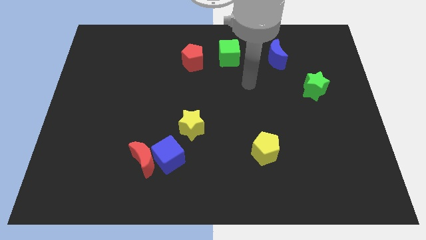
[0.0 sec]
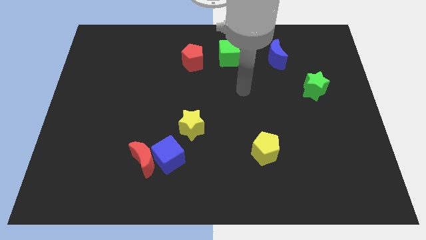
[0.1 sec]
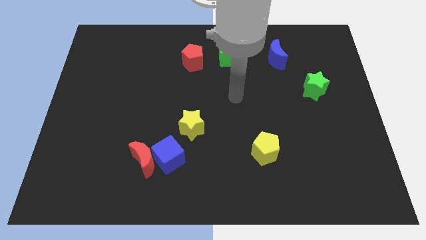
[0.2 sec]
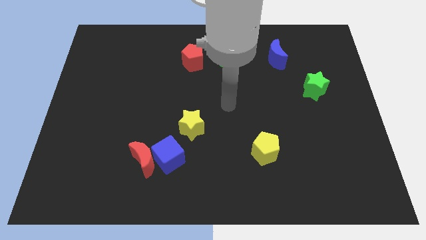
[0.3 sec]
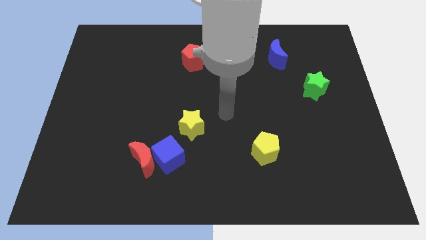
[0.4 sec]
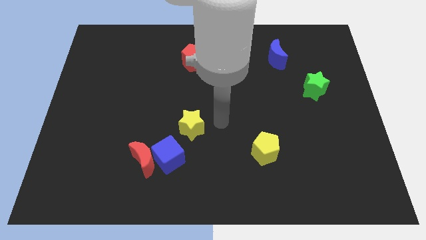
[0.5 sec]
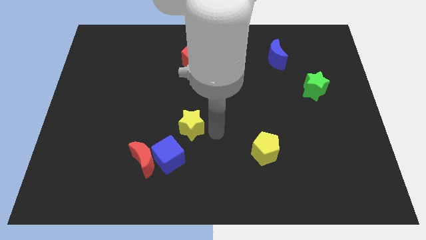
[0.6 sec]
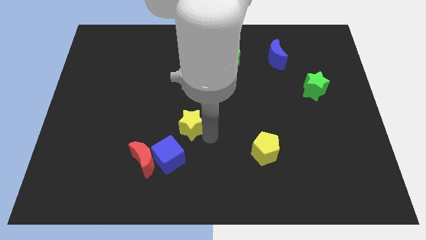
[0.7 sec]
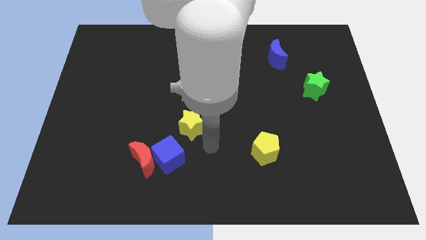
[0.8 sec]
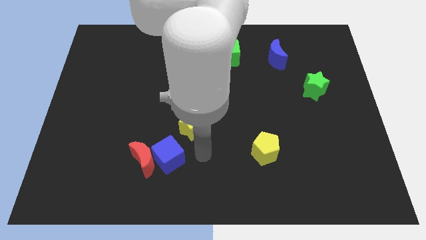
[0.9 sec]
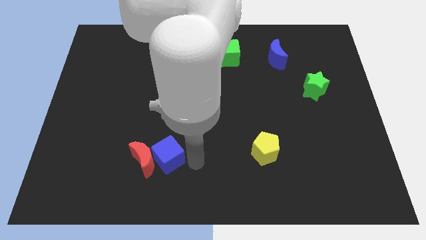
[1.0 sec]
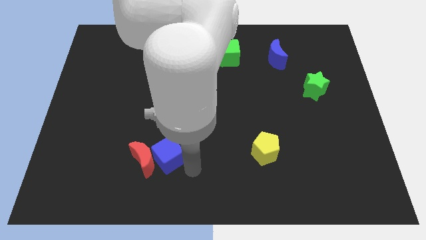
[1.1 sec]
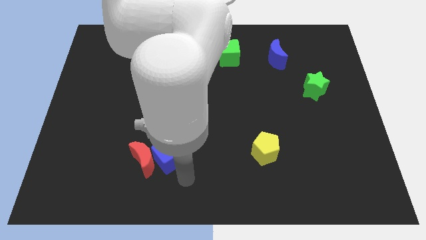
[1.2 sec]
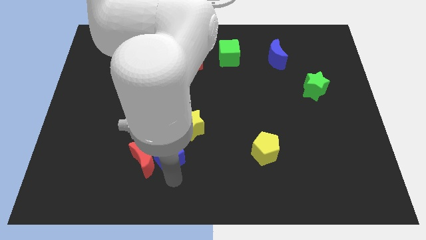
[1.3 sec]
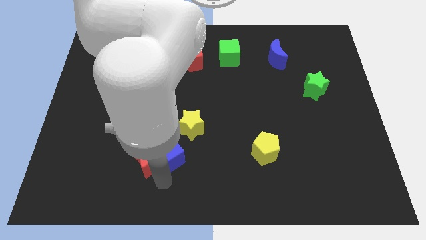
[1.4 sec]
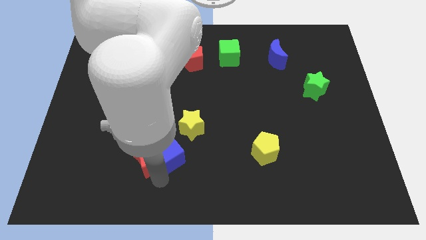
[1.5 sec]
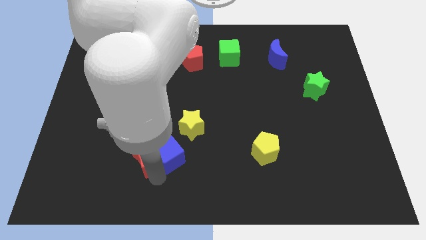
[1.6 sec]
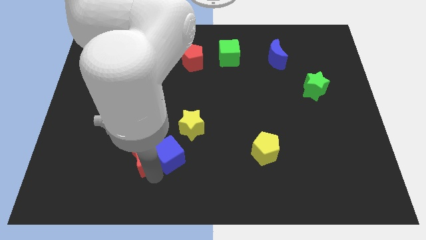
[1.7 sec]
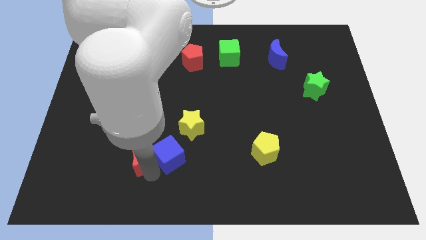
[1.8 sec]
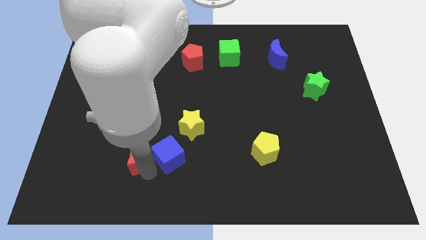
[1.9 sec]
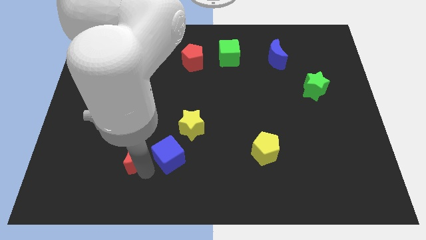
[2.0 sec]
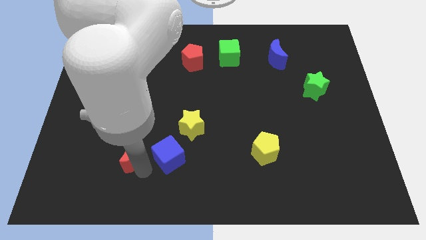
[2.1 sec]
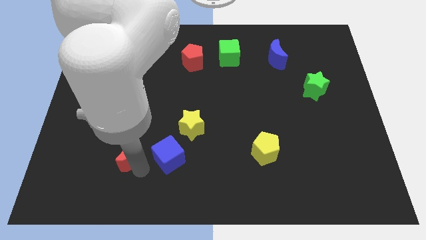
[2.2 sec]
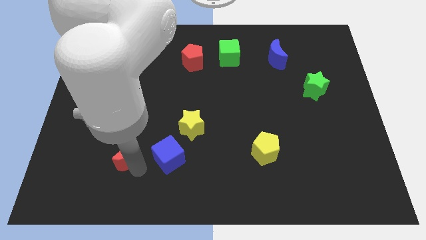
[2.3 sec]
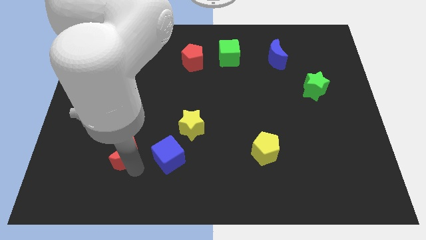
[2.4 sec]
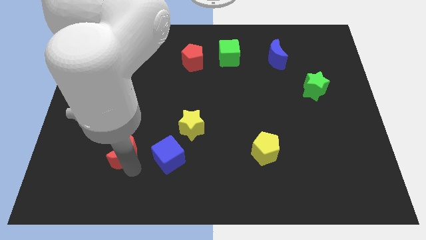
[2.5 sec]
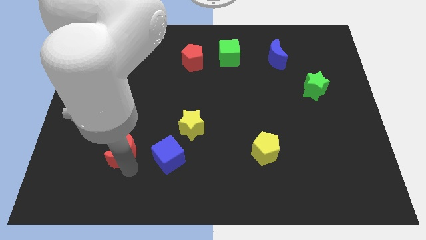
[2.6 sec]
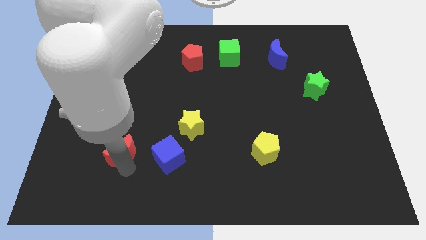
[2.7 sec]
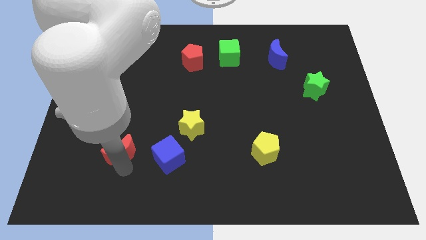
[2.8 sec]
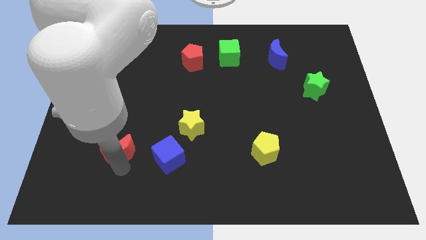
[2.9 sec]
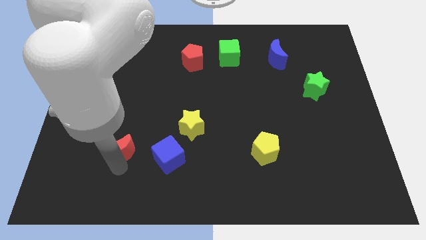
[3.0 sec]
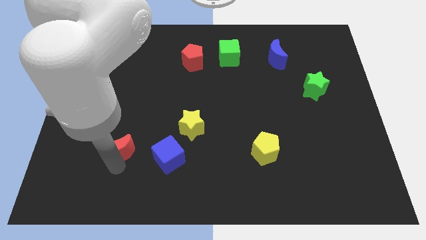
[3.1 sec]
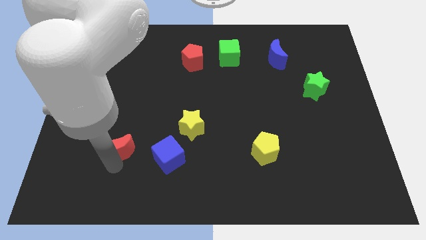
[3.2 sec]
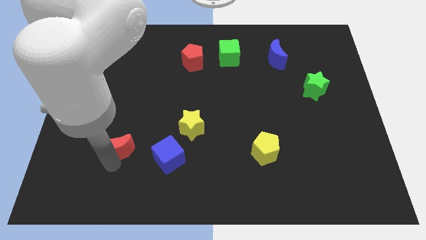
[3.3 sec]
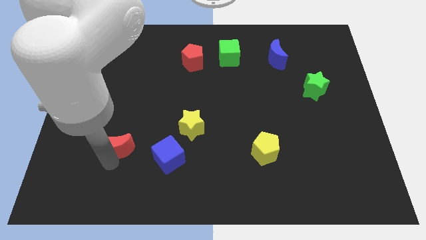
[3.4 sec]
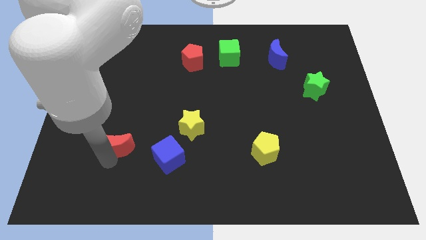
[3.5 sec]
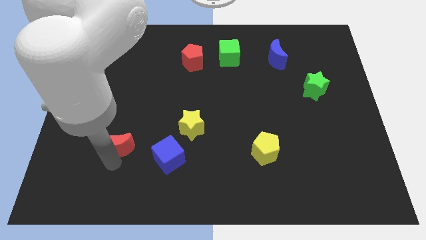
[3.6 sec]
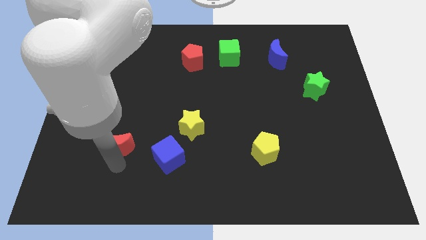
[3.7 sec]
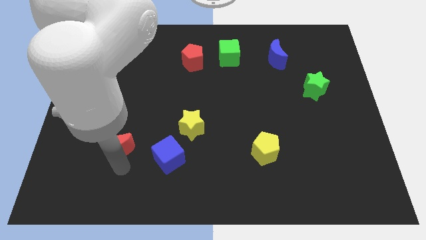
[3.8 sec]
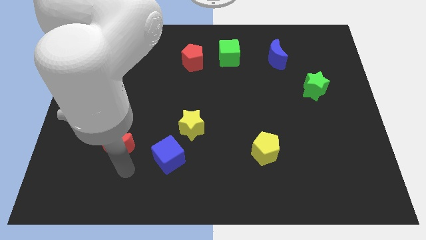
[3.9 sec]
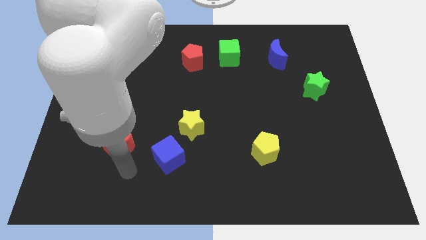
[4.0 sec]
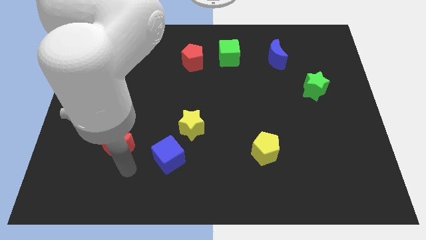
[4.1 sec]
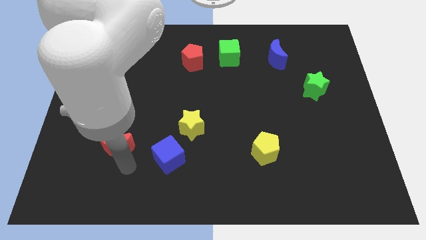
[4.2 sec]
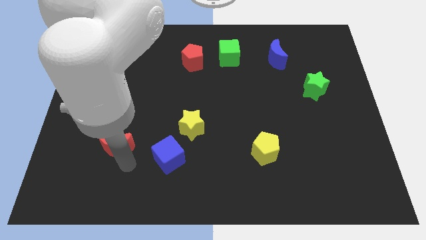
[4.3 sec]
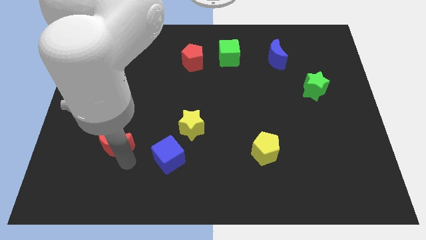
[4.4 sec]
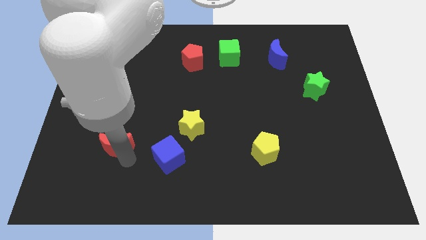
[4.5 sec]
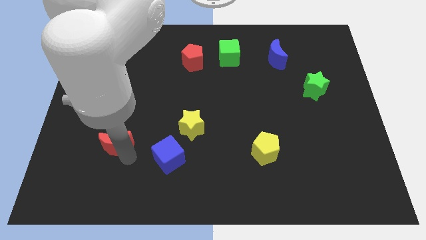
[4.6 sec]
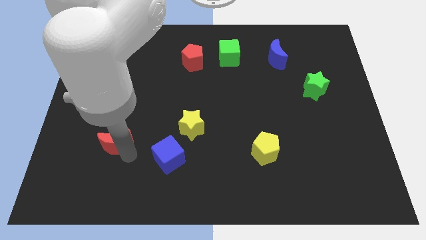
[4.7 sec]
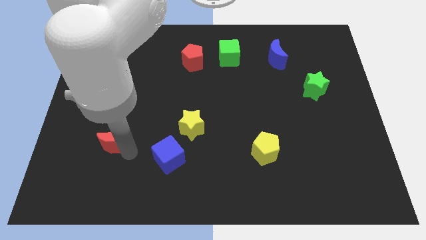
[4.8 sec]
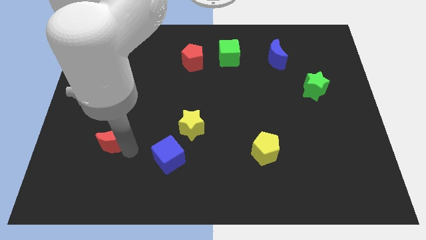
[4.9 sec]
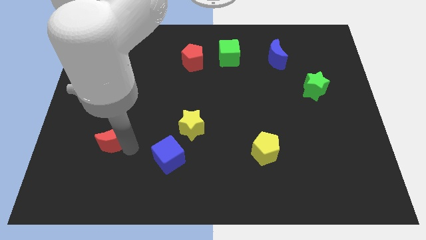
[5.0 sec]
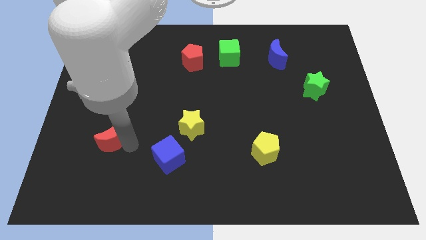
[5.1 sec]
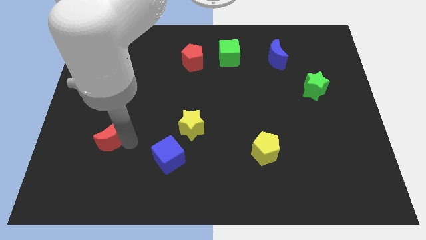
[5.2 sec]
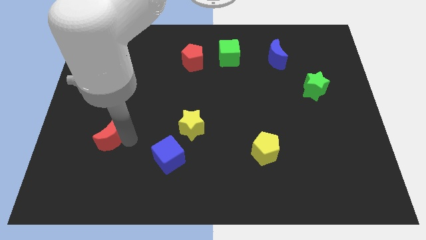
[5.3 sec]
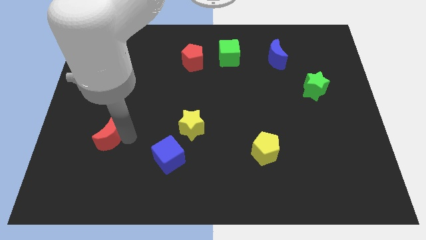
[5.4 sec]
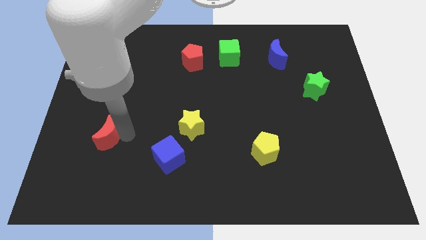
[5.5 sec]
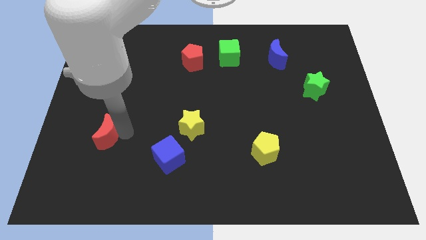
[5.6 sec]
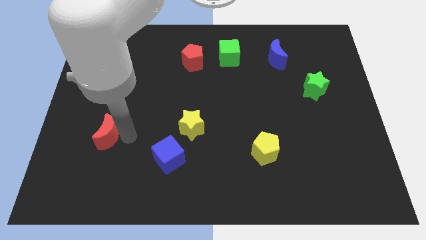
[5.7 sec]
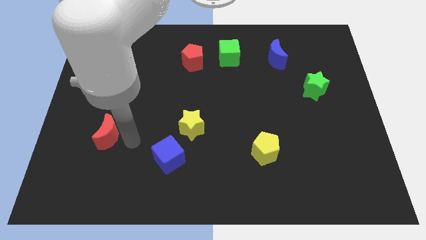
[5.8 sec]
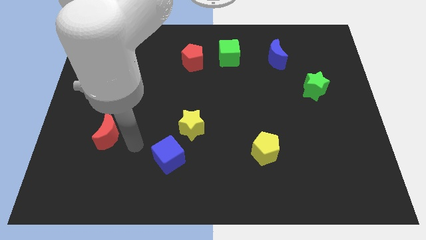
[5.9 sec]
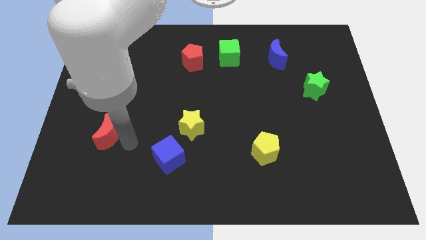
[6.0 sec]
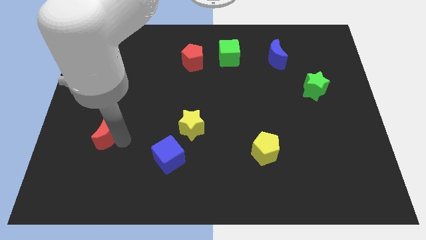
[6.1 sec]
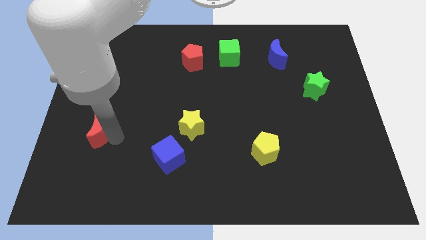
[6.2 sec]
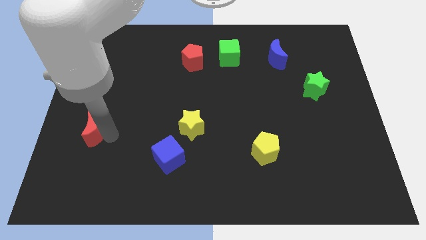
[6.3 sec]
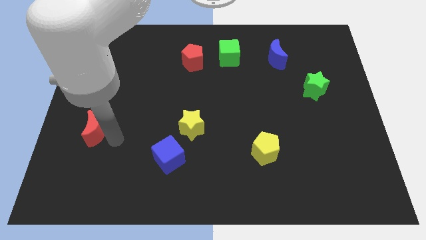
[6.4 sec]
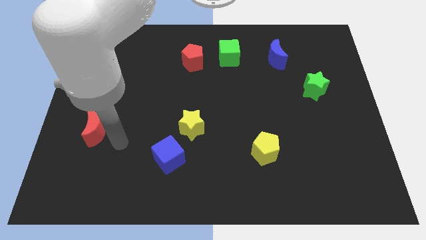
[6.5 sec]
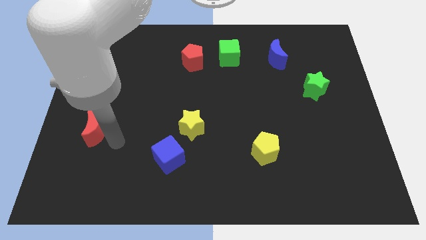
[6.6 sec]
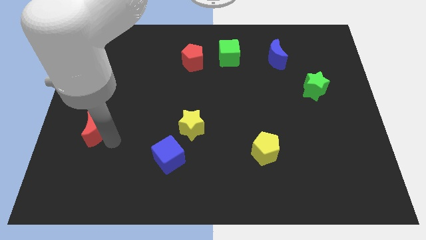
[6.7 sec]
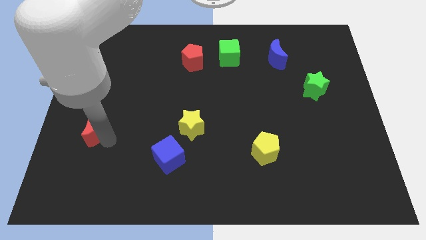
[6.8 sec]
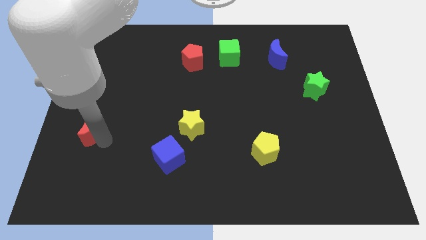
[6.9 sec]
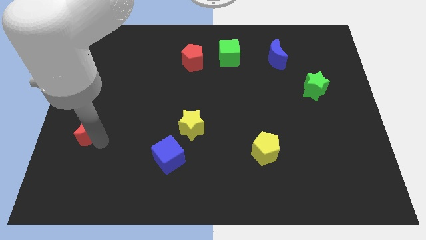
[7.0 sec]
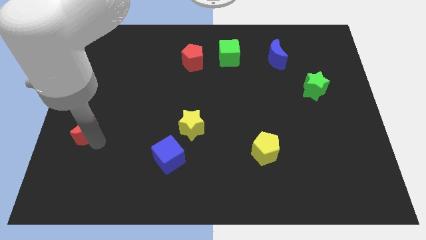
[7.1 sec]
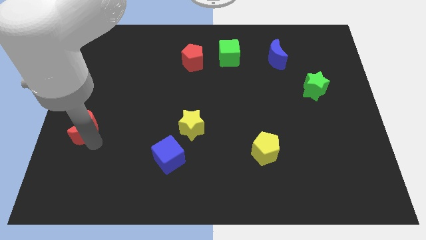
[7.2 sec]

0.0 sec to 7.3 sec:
push the red moon to the left side

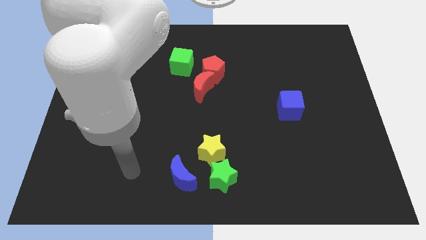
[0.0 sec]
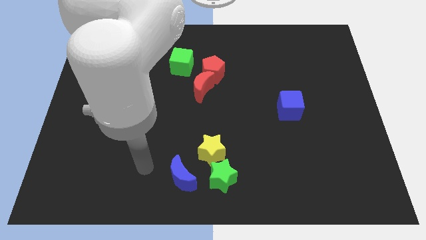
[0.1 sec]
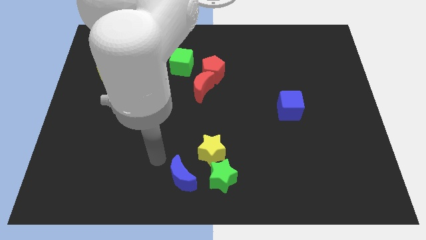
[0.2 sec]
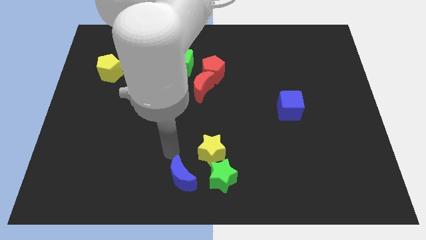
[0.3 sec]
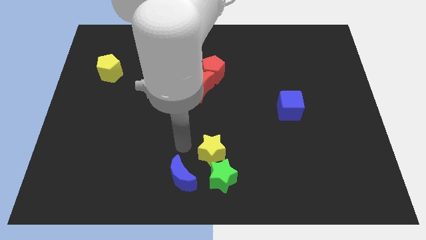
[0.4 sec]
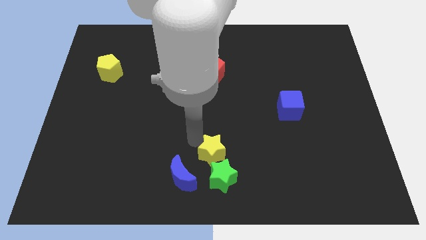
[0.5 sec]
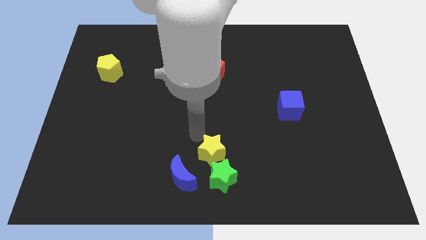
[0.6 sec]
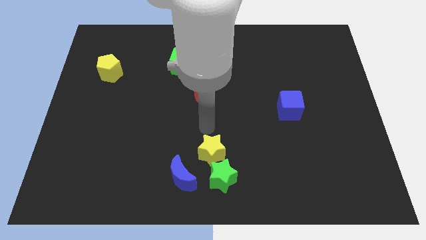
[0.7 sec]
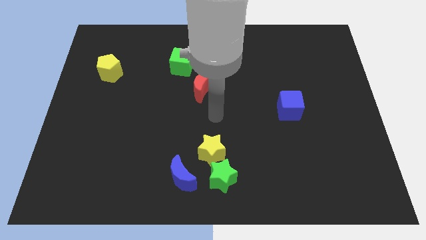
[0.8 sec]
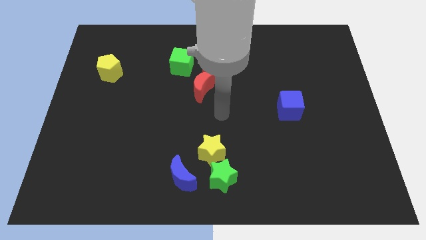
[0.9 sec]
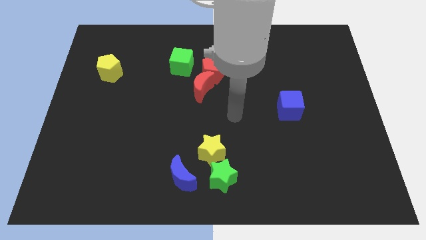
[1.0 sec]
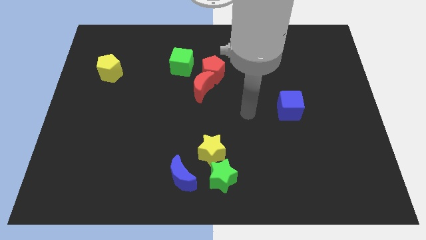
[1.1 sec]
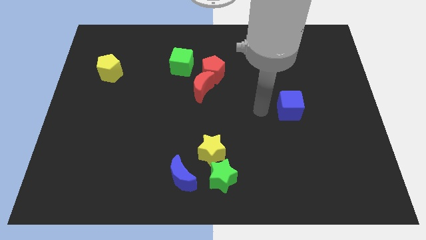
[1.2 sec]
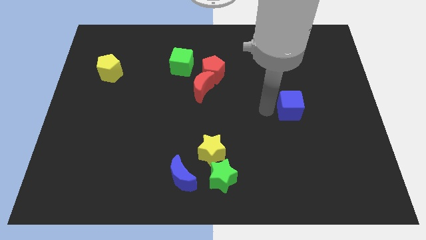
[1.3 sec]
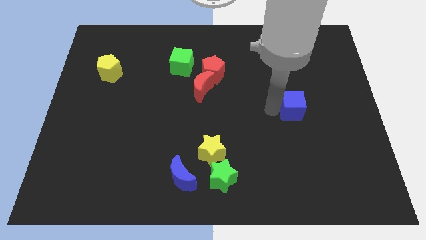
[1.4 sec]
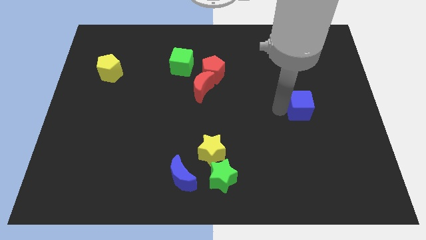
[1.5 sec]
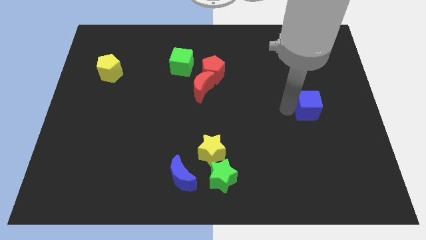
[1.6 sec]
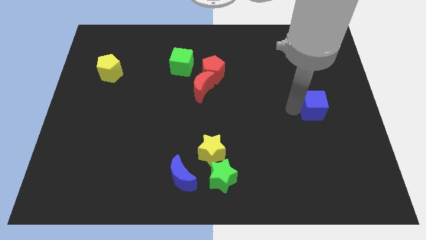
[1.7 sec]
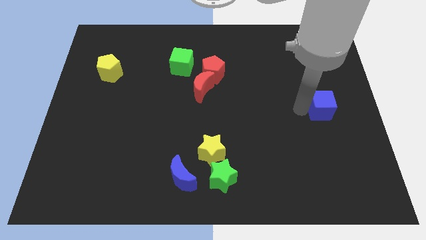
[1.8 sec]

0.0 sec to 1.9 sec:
move the blue cube to the center right
